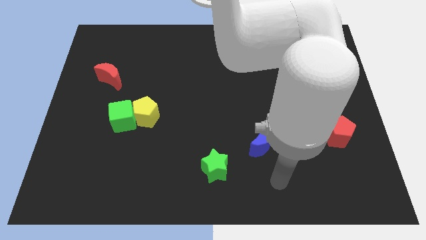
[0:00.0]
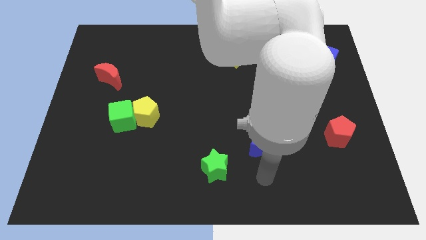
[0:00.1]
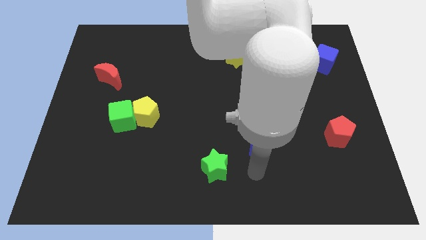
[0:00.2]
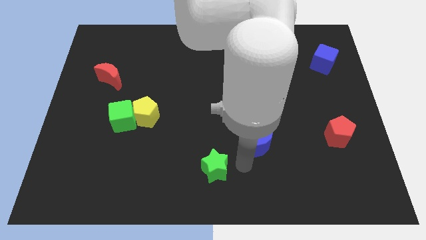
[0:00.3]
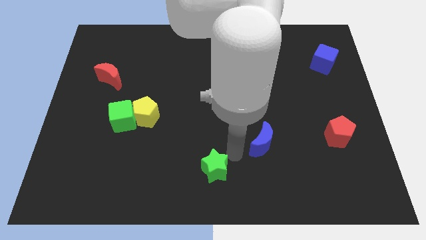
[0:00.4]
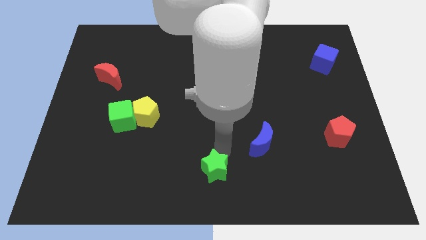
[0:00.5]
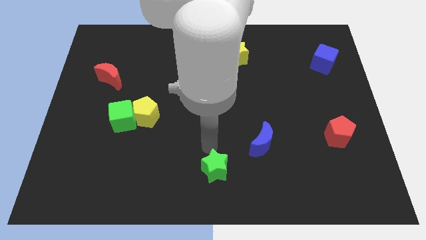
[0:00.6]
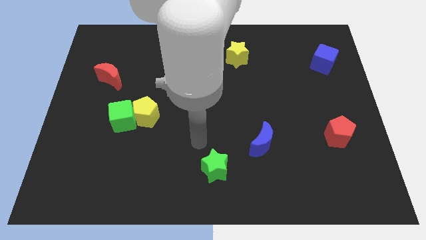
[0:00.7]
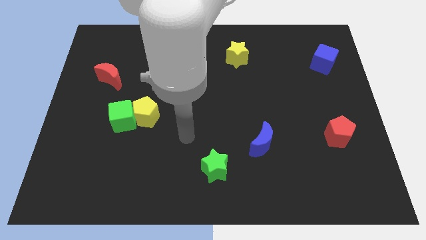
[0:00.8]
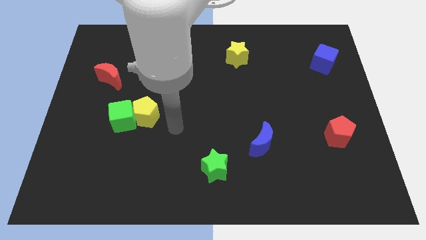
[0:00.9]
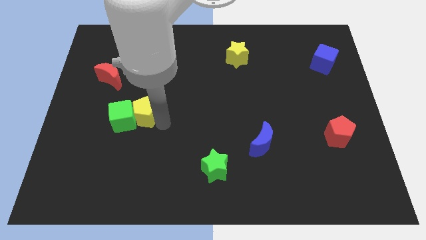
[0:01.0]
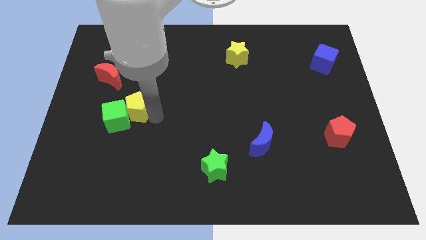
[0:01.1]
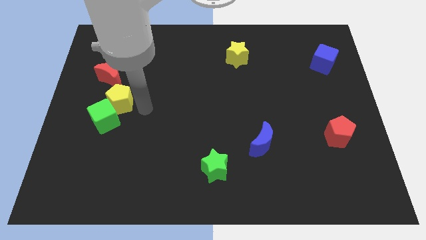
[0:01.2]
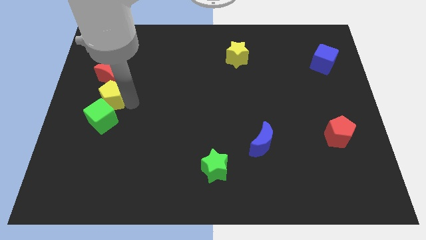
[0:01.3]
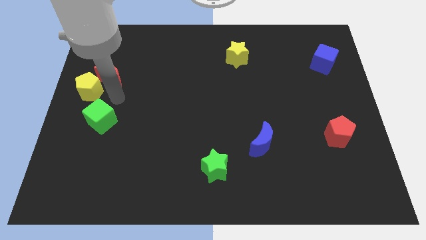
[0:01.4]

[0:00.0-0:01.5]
separate the green cube from the yellow pentagon

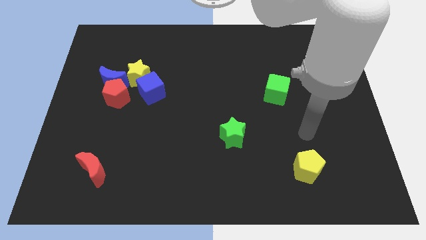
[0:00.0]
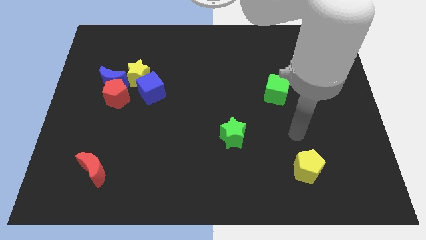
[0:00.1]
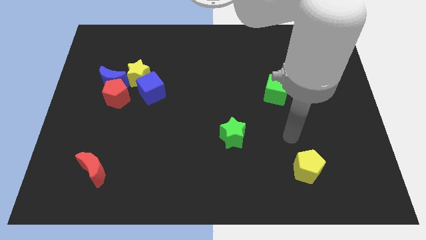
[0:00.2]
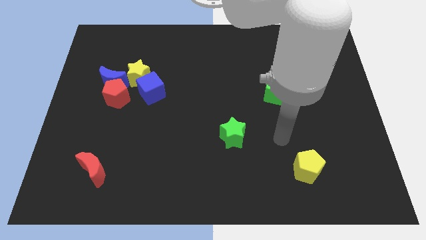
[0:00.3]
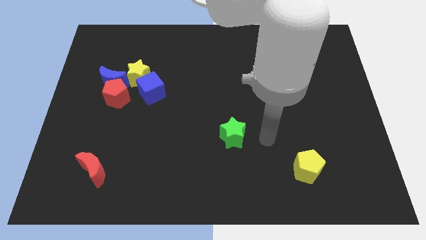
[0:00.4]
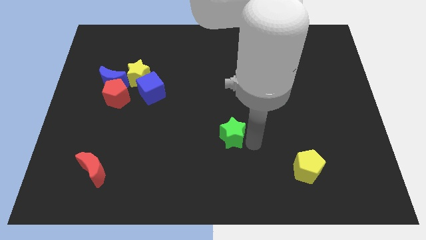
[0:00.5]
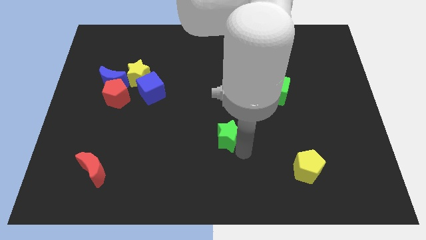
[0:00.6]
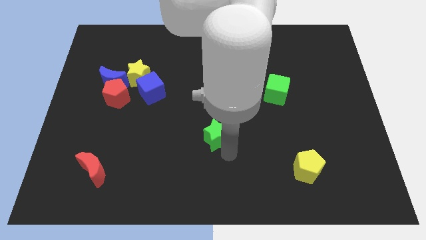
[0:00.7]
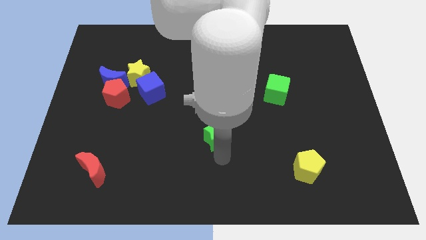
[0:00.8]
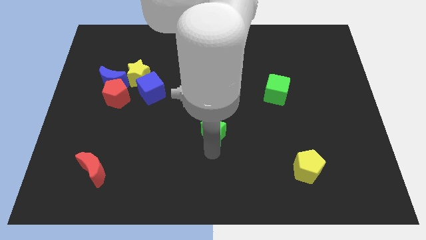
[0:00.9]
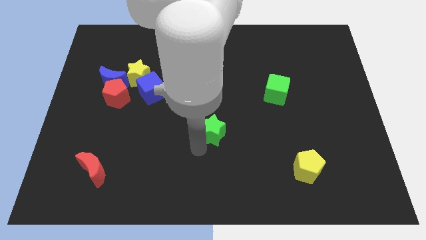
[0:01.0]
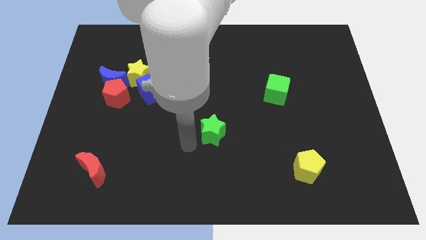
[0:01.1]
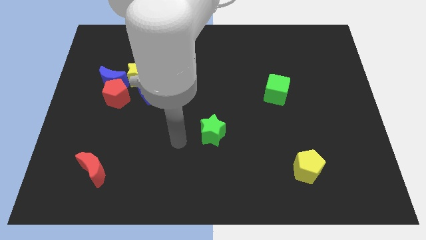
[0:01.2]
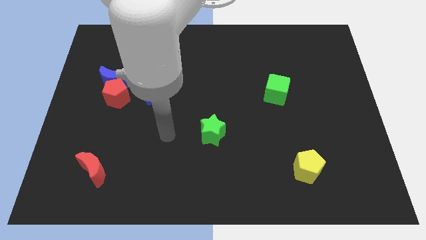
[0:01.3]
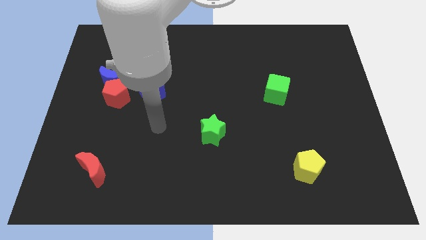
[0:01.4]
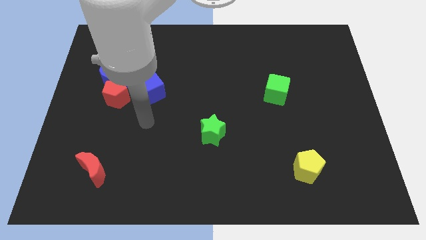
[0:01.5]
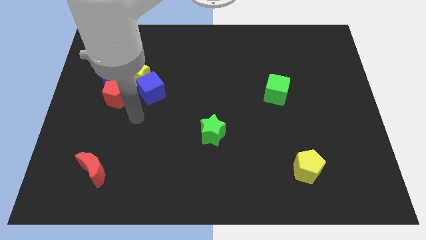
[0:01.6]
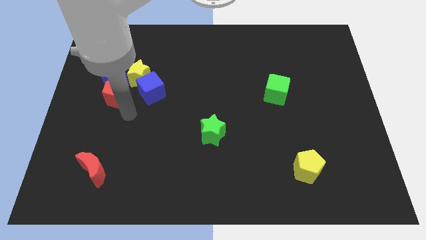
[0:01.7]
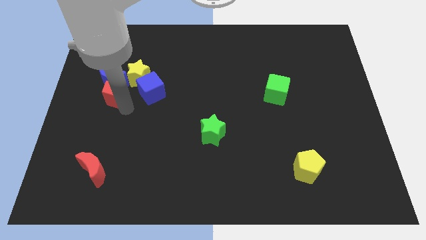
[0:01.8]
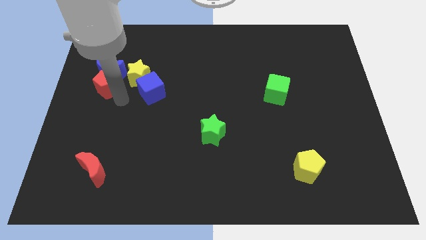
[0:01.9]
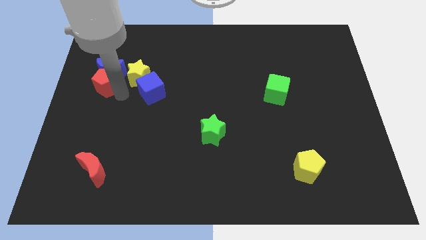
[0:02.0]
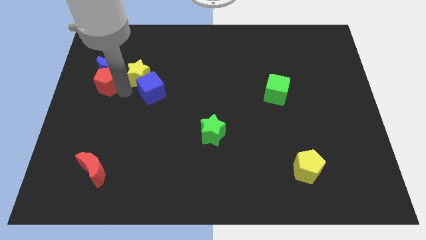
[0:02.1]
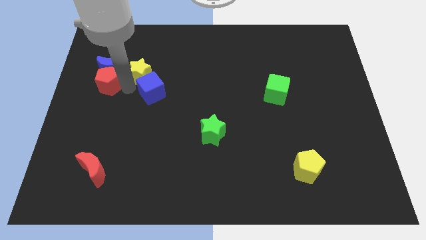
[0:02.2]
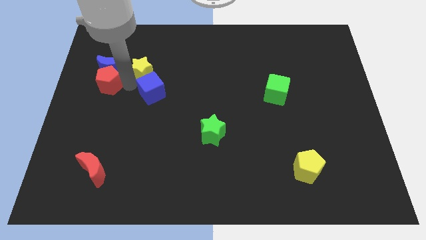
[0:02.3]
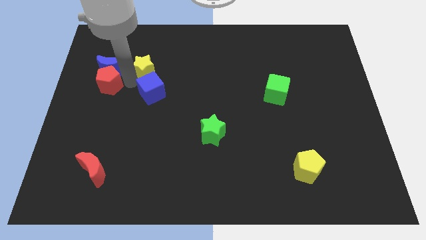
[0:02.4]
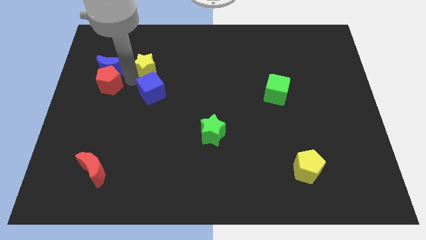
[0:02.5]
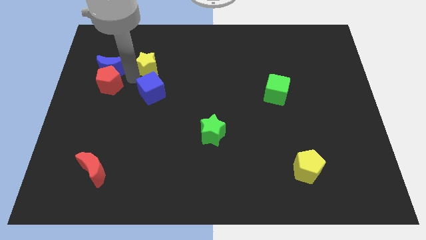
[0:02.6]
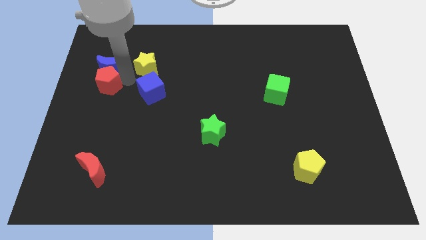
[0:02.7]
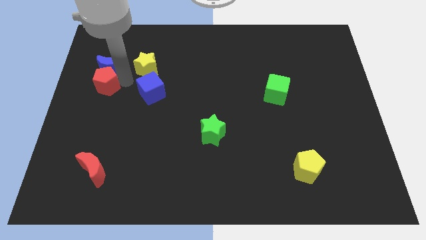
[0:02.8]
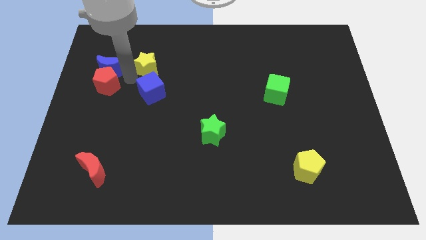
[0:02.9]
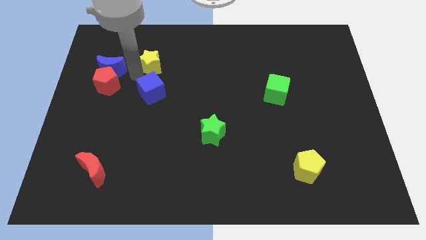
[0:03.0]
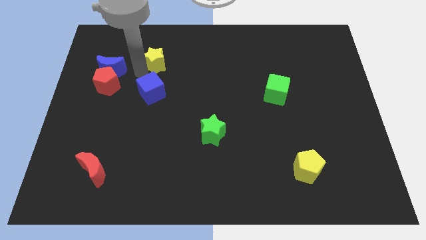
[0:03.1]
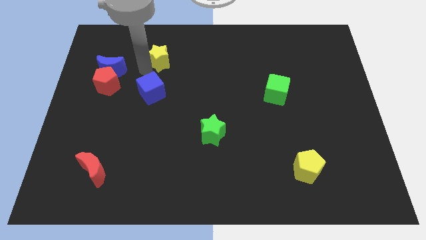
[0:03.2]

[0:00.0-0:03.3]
move the yellow star away from the group

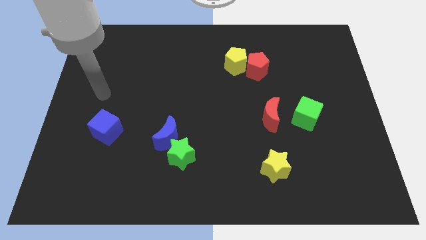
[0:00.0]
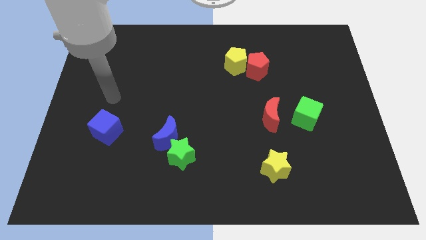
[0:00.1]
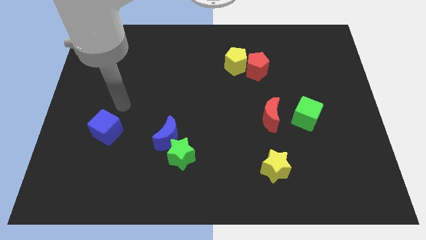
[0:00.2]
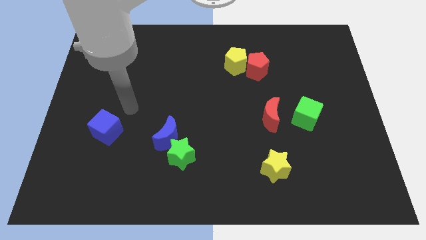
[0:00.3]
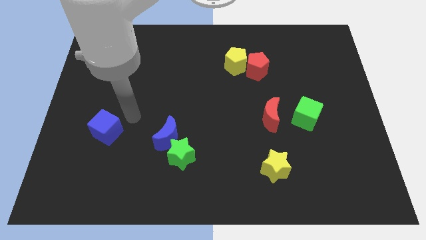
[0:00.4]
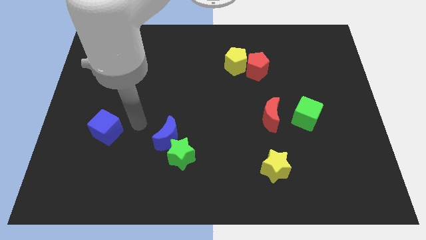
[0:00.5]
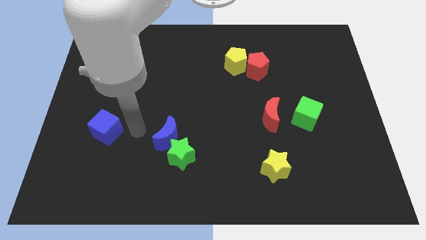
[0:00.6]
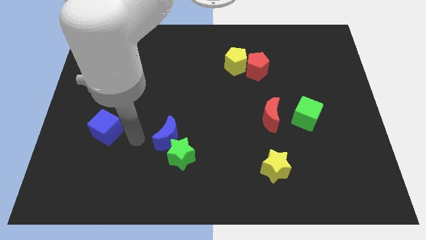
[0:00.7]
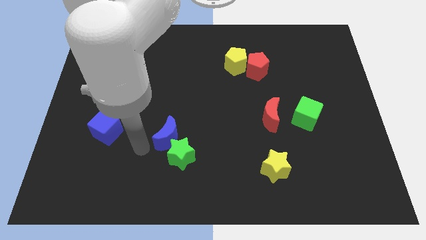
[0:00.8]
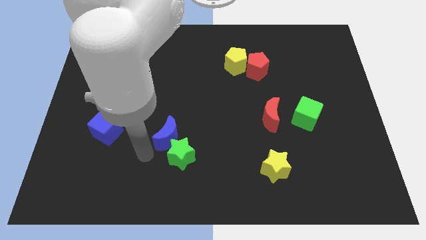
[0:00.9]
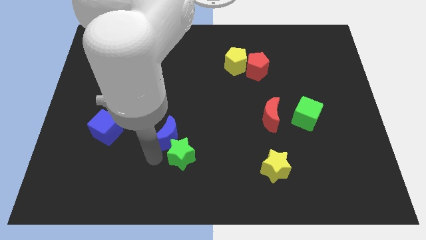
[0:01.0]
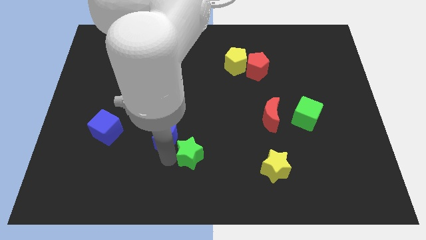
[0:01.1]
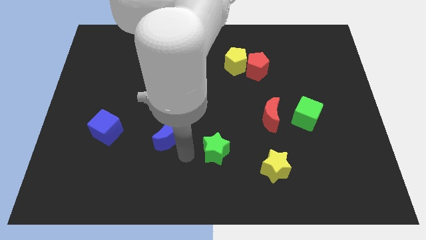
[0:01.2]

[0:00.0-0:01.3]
pull the blue moon apart from the green star

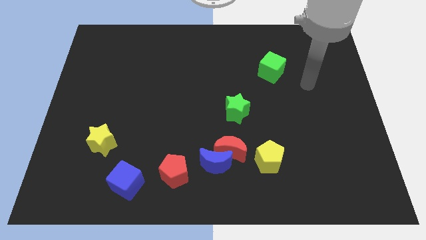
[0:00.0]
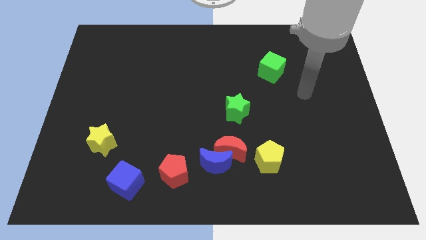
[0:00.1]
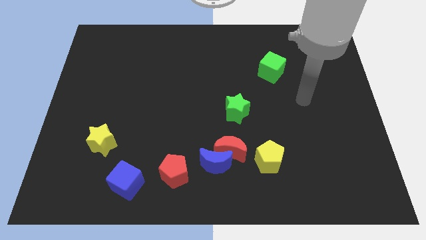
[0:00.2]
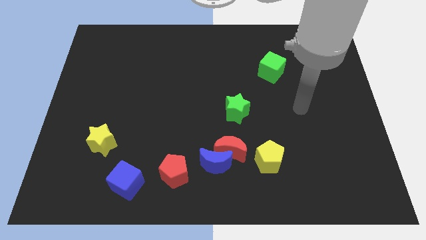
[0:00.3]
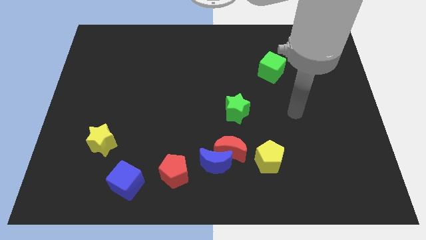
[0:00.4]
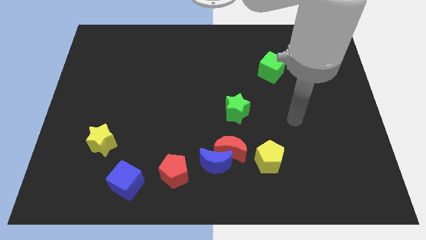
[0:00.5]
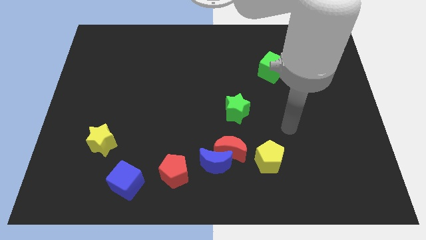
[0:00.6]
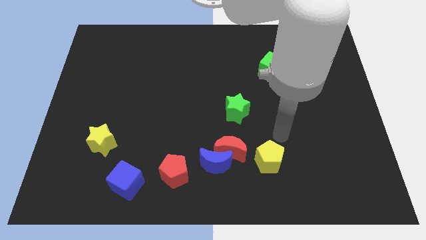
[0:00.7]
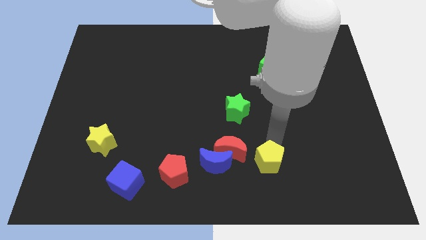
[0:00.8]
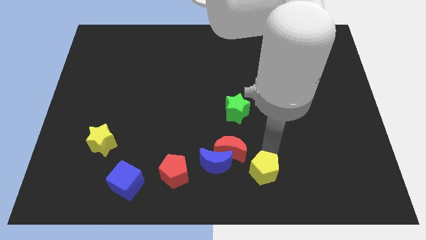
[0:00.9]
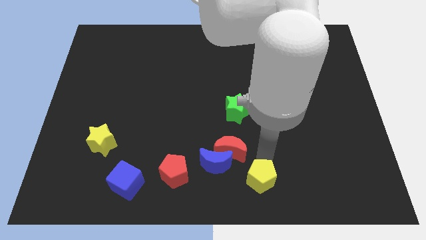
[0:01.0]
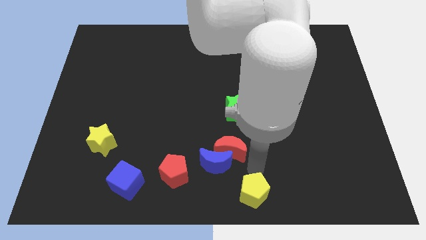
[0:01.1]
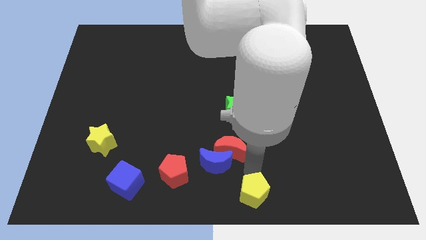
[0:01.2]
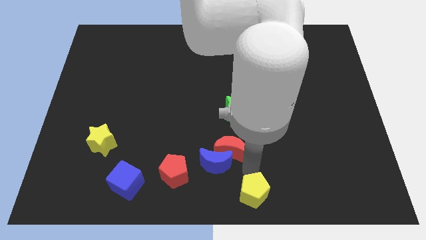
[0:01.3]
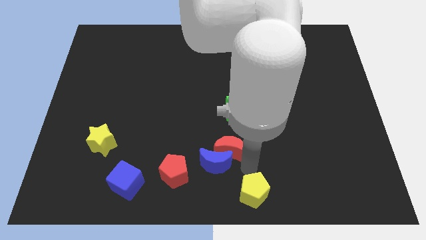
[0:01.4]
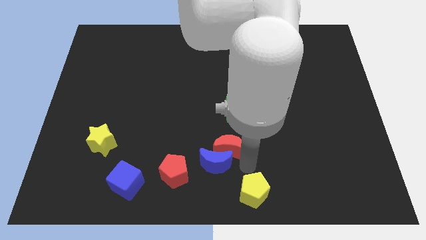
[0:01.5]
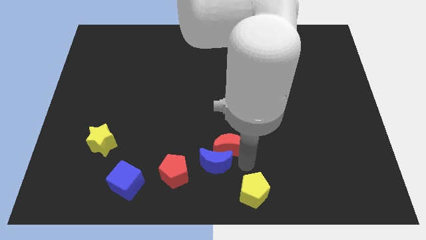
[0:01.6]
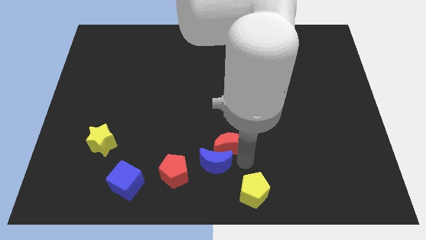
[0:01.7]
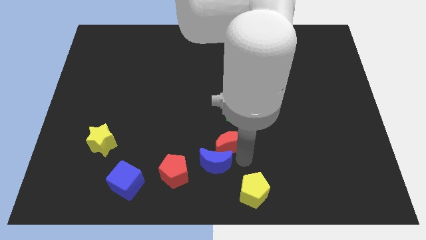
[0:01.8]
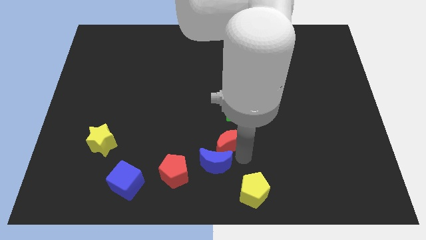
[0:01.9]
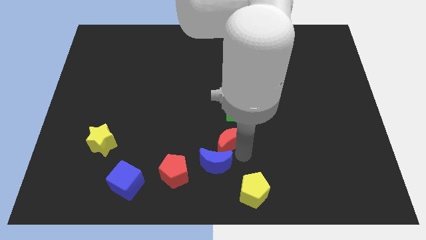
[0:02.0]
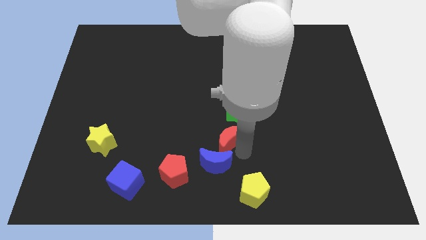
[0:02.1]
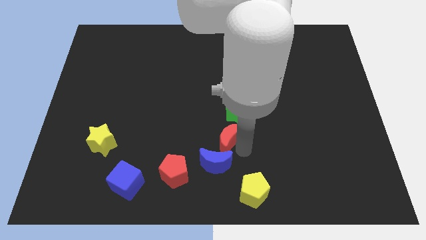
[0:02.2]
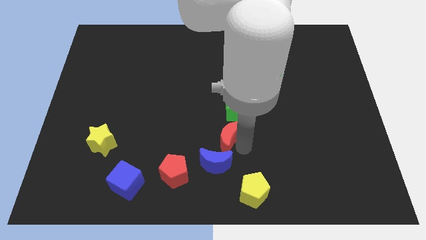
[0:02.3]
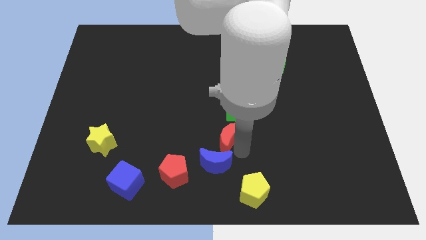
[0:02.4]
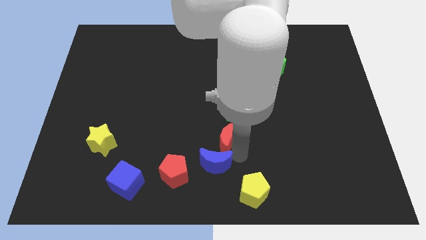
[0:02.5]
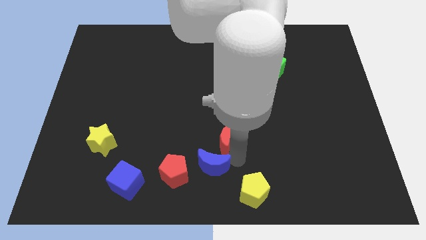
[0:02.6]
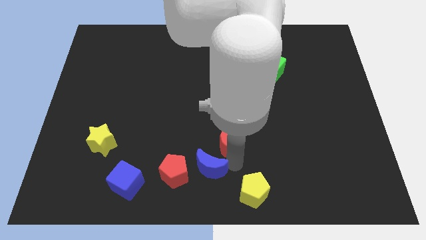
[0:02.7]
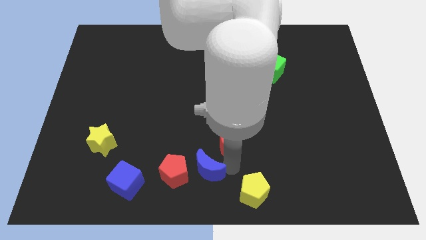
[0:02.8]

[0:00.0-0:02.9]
pull the red moon apart from the blue moon and yellow pentagon

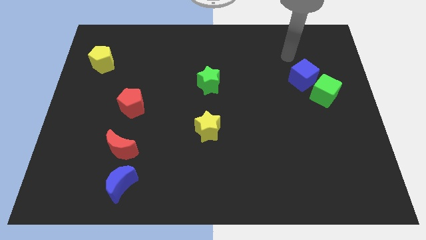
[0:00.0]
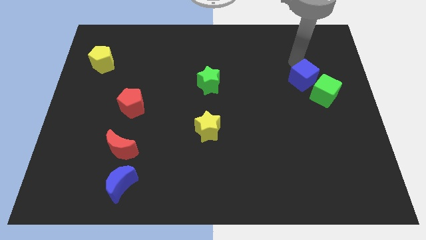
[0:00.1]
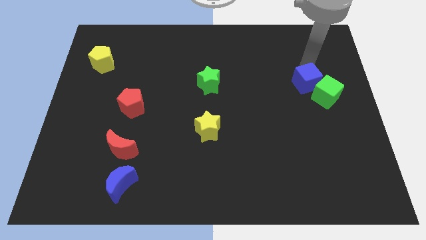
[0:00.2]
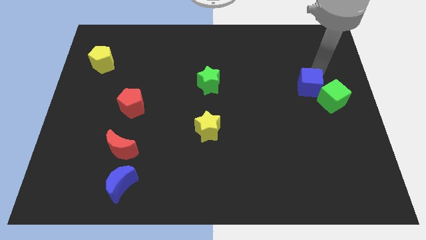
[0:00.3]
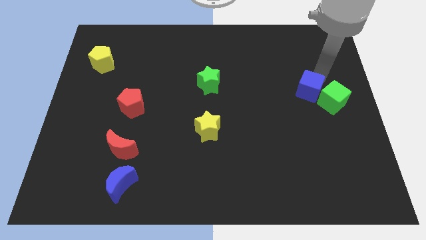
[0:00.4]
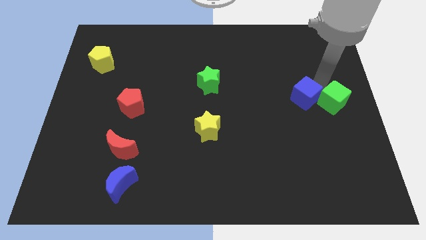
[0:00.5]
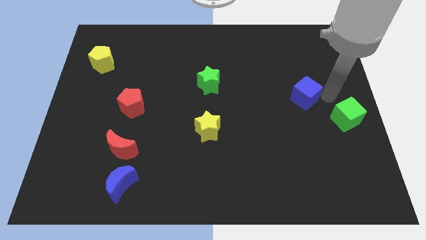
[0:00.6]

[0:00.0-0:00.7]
pull the blue cube apart from the green cube
